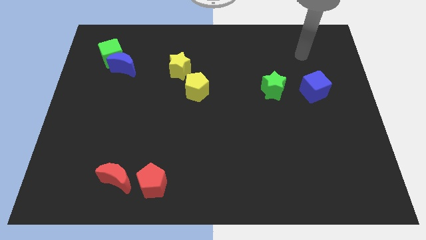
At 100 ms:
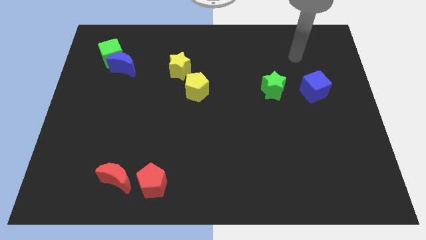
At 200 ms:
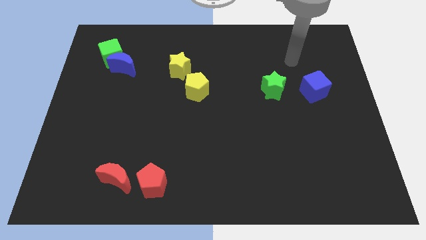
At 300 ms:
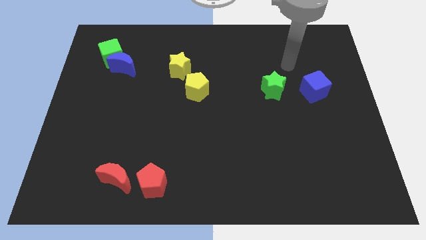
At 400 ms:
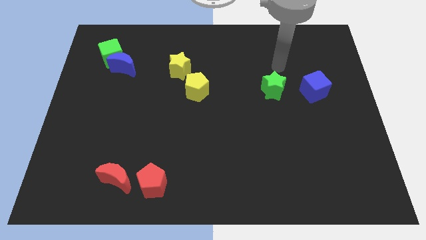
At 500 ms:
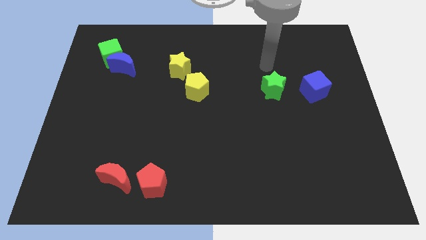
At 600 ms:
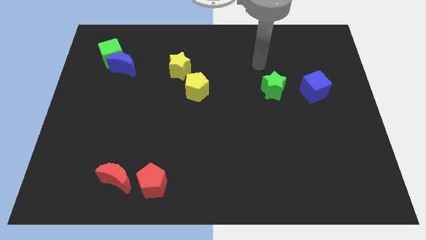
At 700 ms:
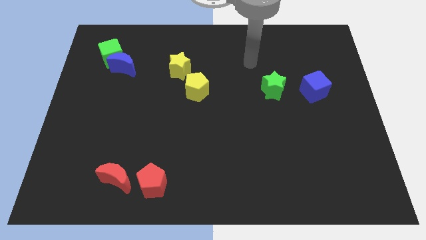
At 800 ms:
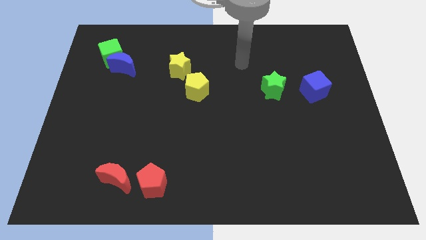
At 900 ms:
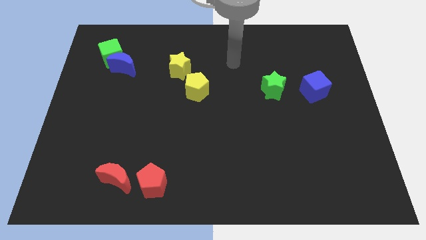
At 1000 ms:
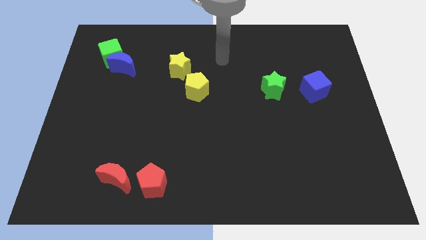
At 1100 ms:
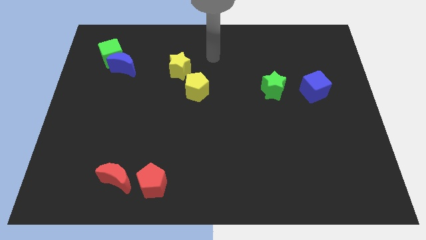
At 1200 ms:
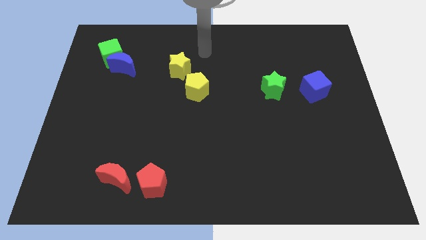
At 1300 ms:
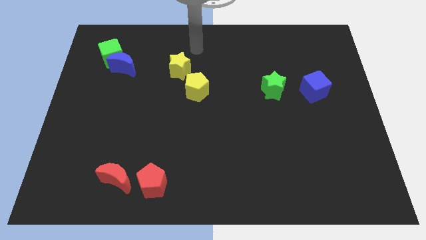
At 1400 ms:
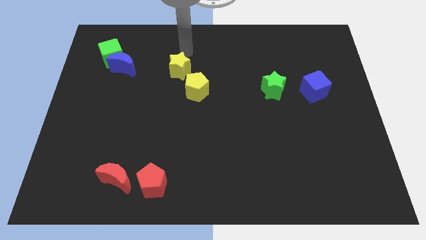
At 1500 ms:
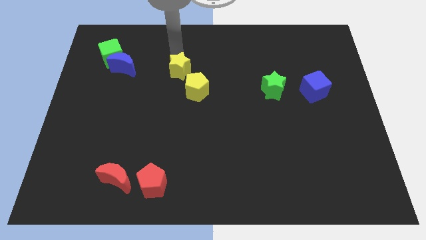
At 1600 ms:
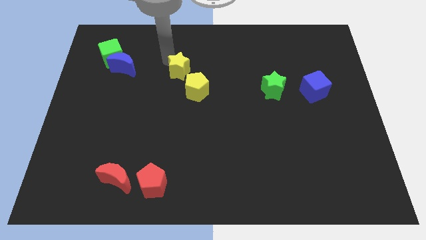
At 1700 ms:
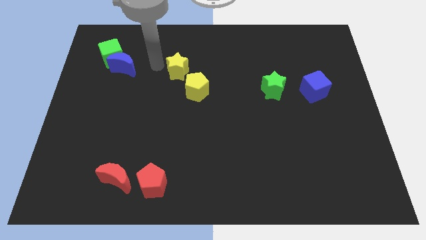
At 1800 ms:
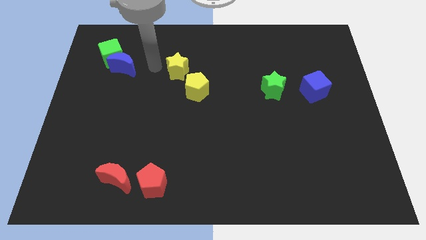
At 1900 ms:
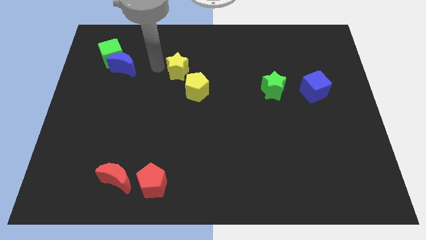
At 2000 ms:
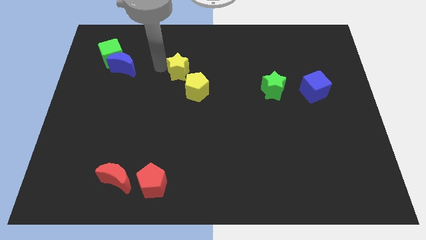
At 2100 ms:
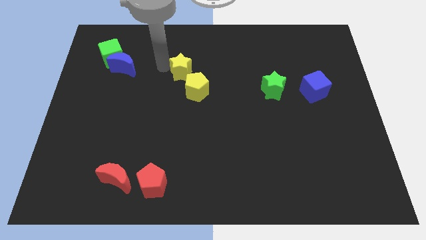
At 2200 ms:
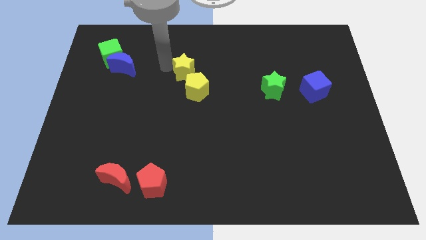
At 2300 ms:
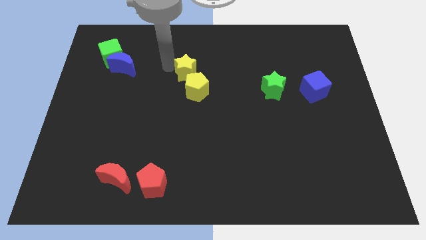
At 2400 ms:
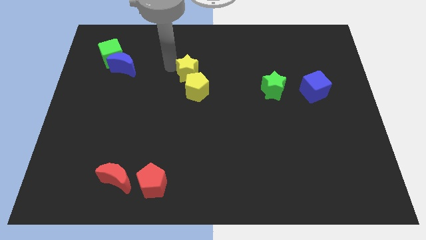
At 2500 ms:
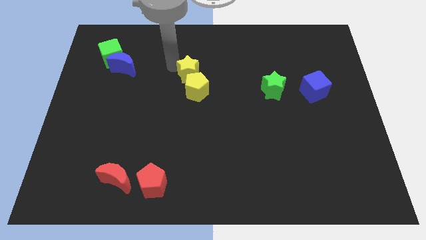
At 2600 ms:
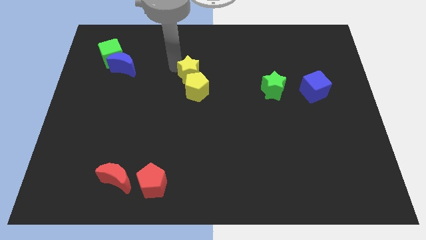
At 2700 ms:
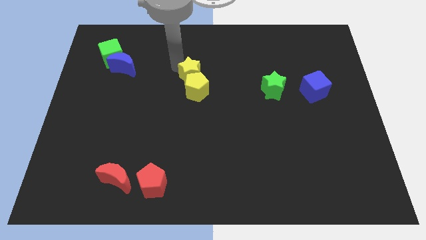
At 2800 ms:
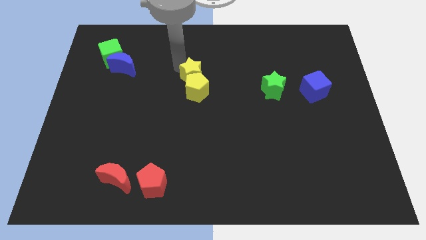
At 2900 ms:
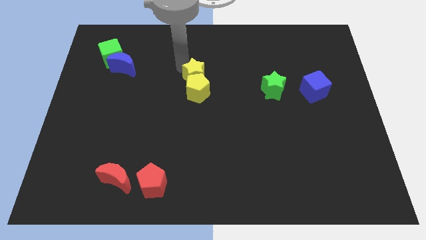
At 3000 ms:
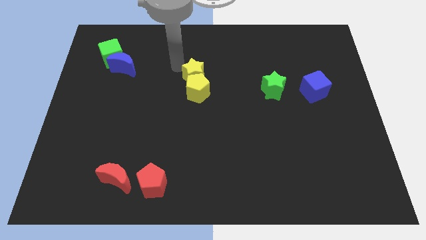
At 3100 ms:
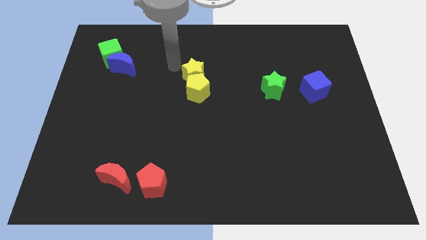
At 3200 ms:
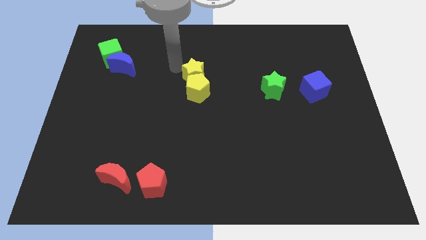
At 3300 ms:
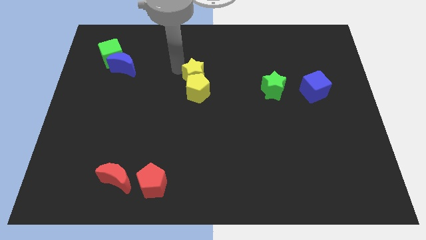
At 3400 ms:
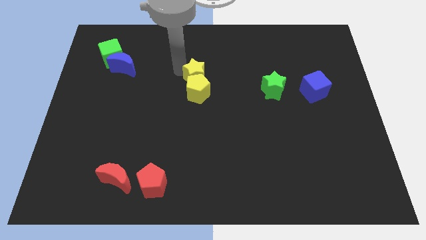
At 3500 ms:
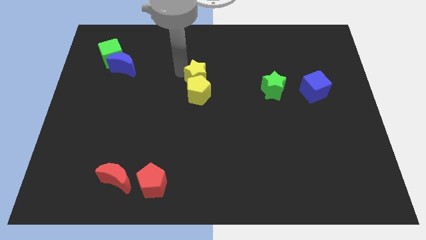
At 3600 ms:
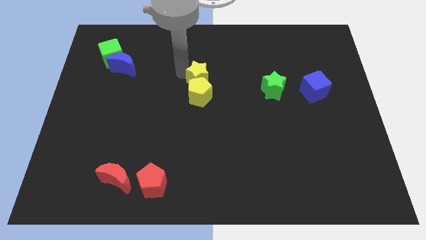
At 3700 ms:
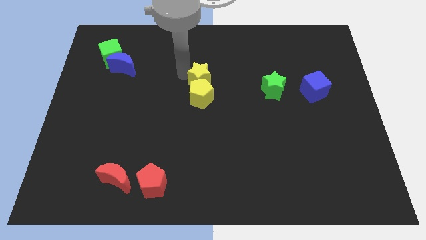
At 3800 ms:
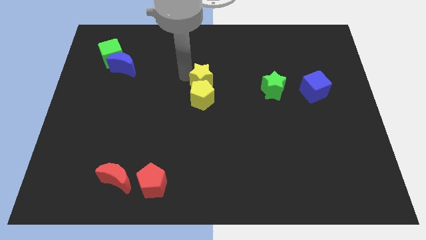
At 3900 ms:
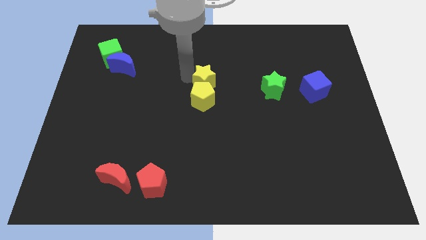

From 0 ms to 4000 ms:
slightly move the yellow star diagonally downwards and right

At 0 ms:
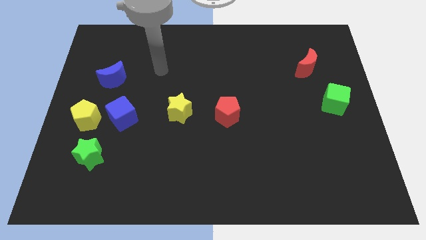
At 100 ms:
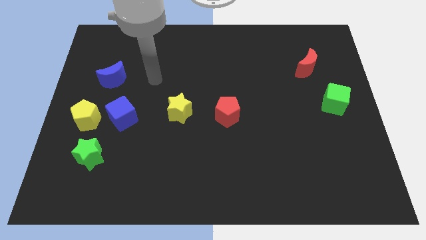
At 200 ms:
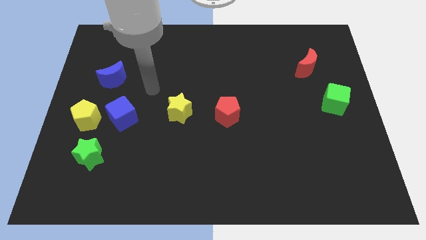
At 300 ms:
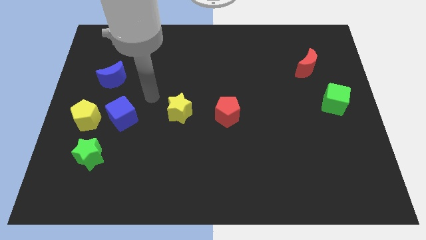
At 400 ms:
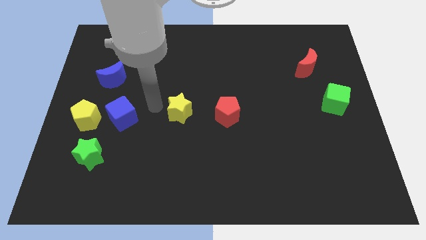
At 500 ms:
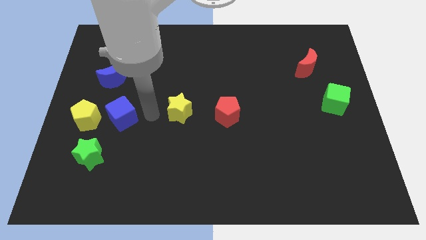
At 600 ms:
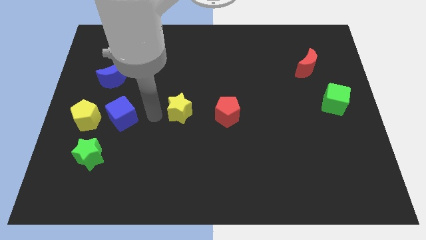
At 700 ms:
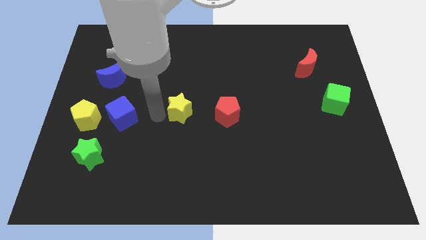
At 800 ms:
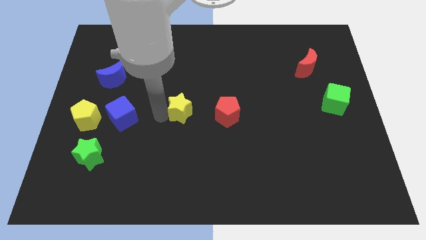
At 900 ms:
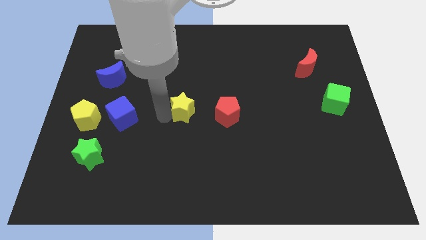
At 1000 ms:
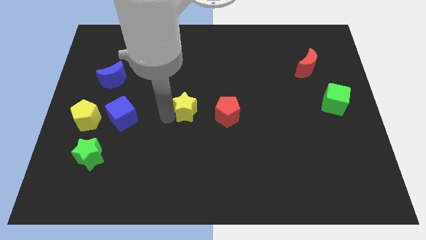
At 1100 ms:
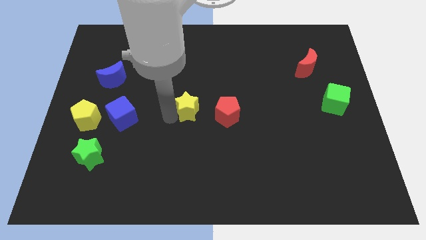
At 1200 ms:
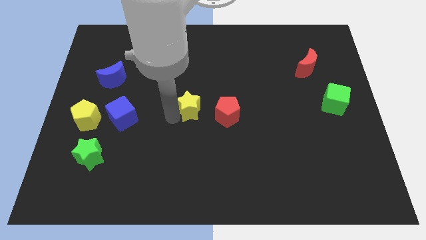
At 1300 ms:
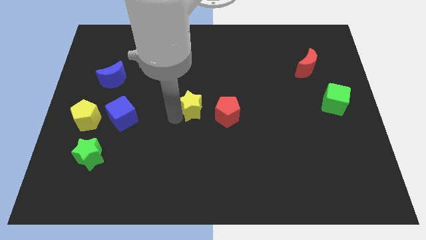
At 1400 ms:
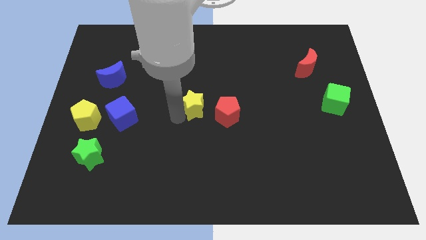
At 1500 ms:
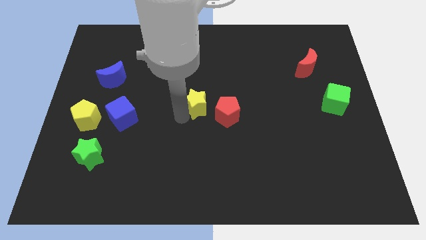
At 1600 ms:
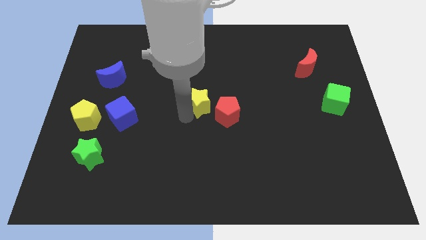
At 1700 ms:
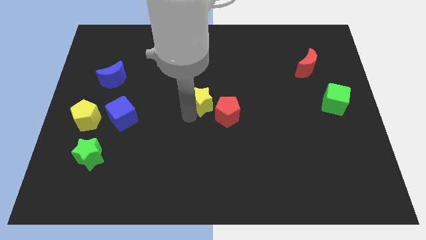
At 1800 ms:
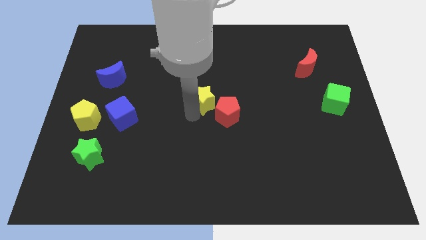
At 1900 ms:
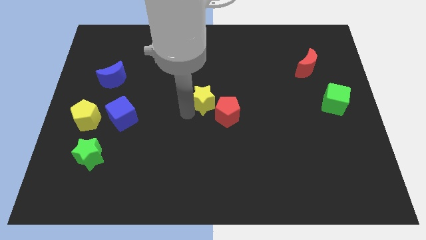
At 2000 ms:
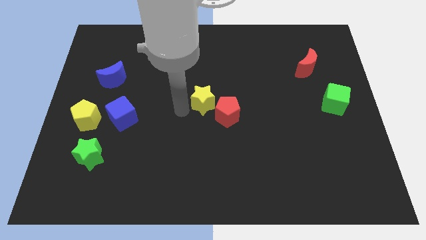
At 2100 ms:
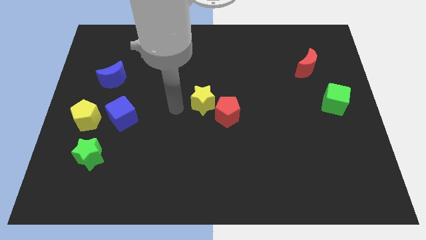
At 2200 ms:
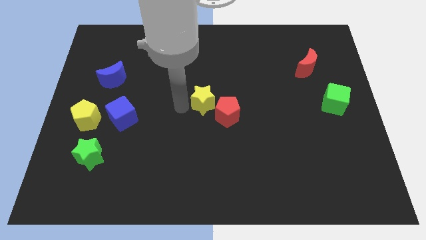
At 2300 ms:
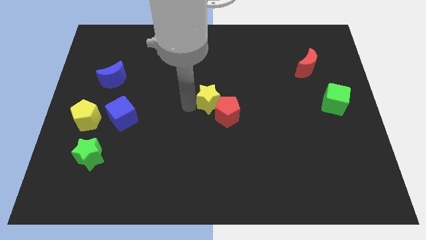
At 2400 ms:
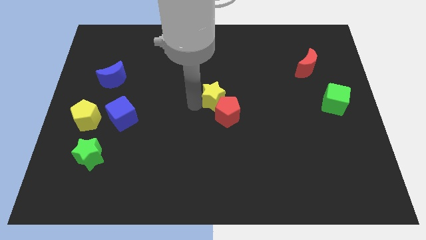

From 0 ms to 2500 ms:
move the yellow star to the right a bit

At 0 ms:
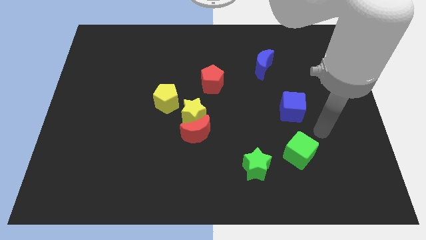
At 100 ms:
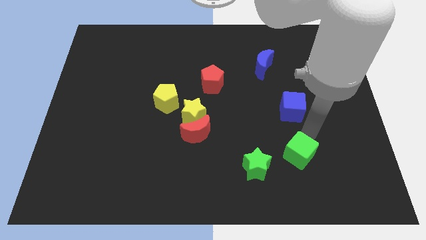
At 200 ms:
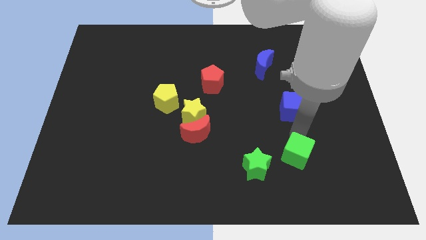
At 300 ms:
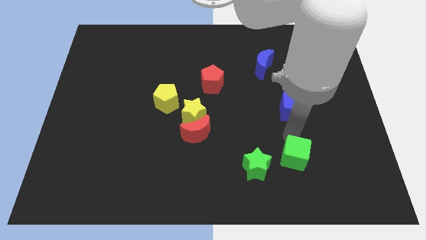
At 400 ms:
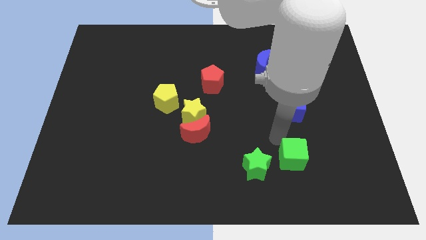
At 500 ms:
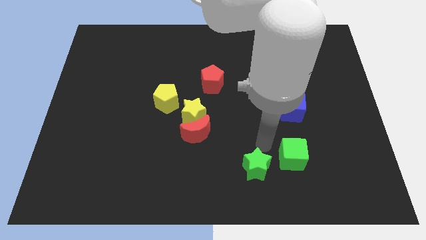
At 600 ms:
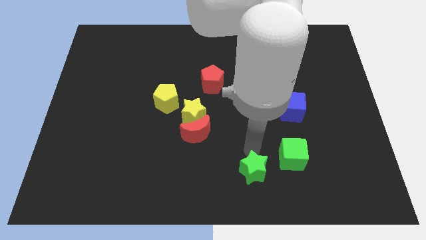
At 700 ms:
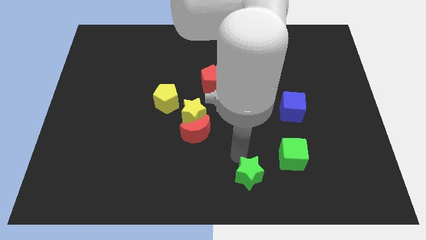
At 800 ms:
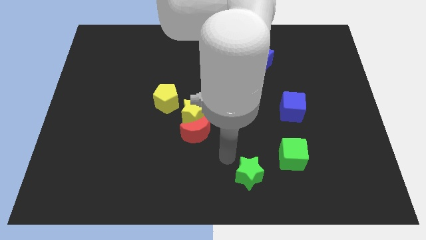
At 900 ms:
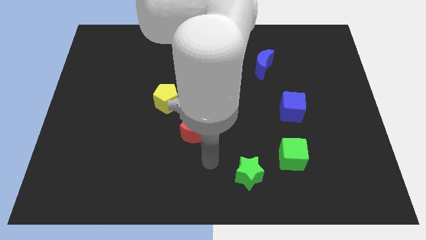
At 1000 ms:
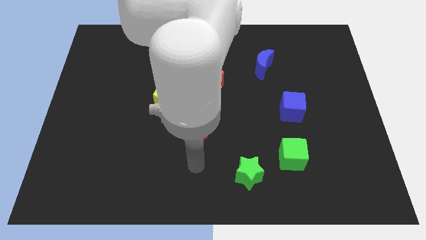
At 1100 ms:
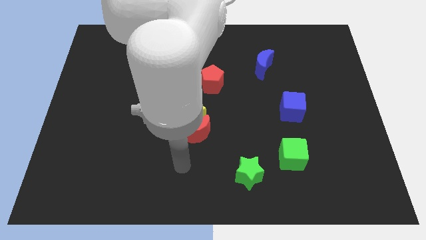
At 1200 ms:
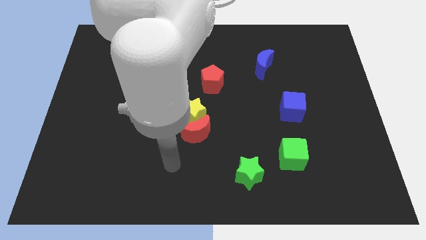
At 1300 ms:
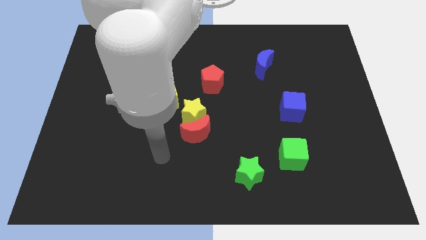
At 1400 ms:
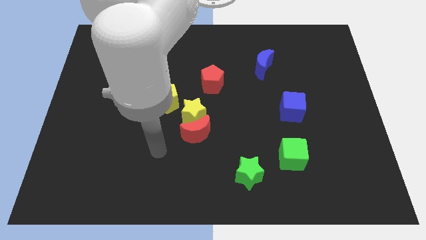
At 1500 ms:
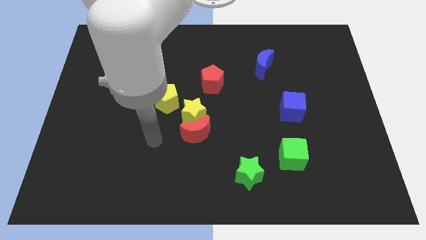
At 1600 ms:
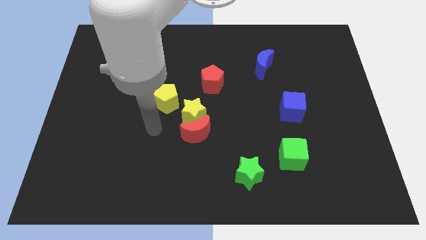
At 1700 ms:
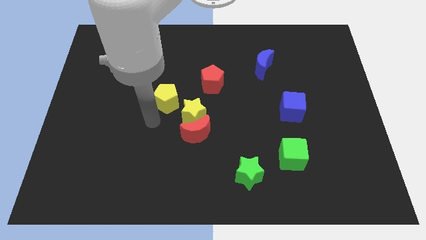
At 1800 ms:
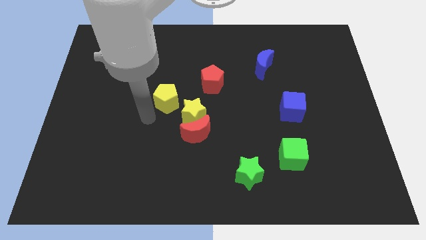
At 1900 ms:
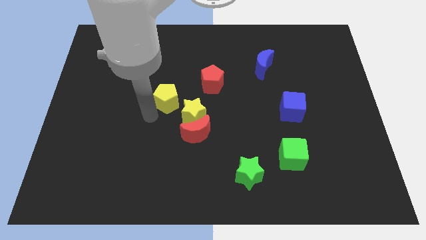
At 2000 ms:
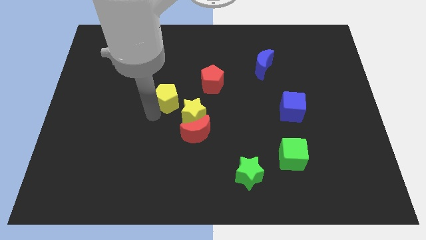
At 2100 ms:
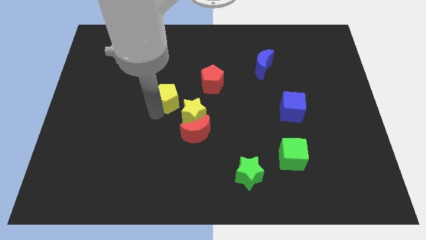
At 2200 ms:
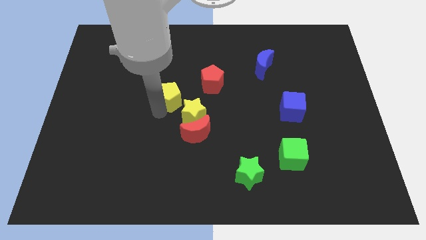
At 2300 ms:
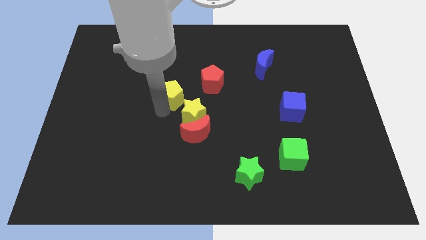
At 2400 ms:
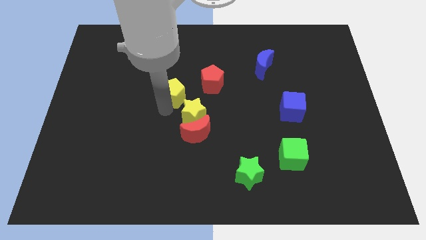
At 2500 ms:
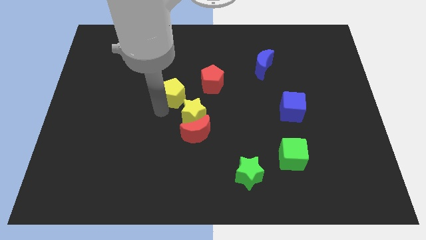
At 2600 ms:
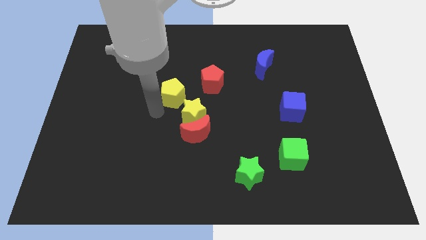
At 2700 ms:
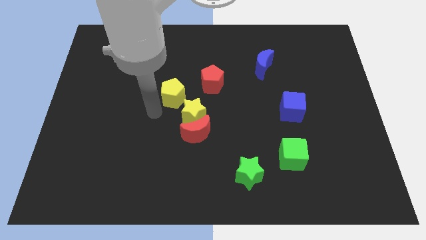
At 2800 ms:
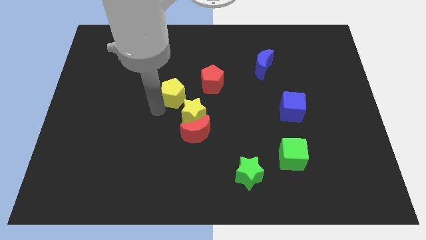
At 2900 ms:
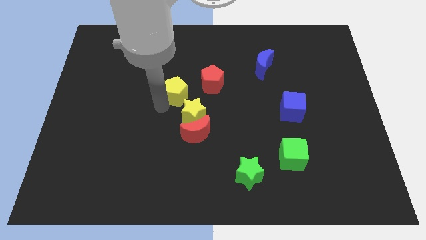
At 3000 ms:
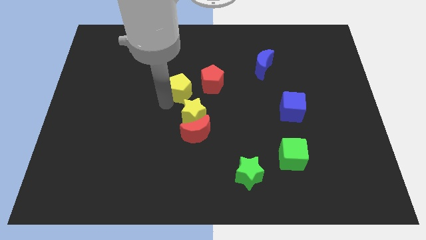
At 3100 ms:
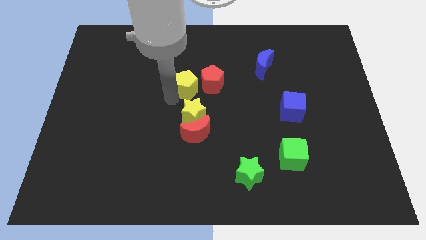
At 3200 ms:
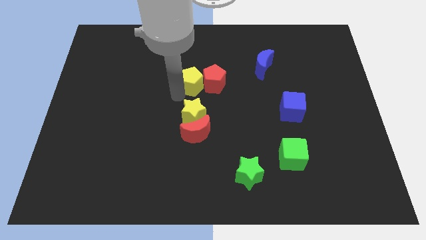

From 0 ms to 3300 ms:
move the yellow pentagon up and to the right diagonally slightly
